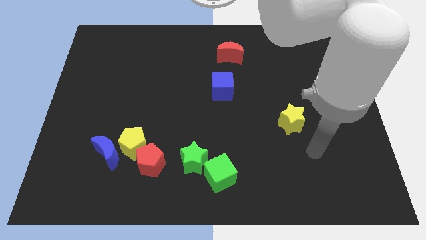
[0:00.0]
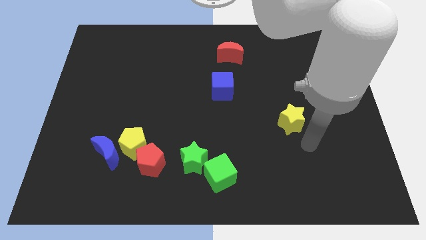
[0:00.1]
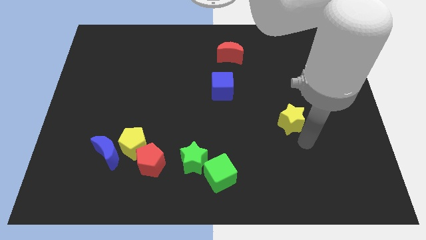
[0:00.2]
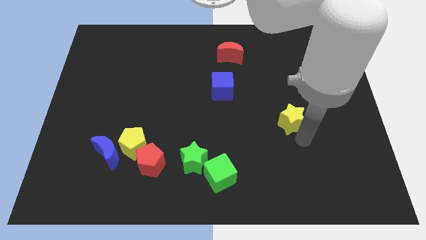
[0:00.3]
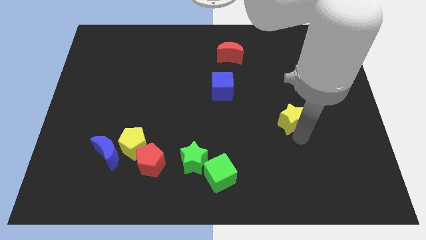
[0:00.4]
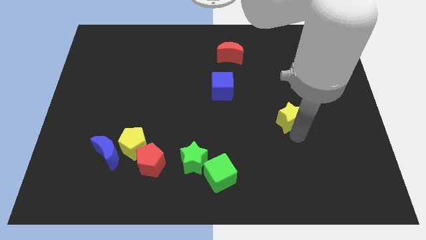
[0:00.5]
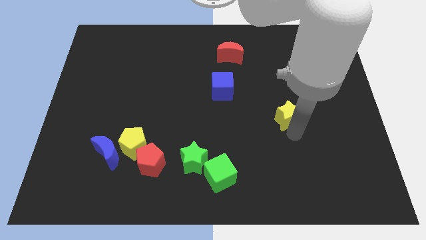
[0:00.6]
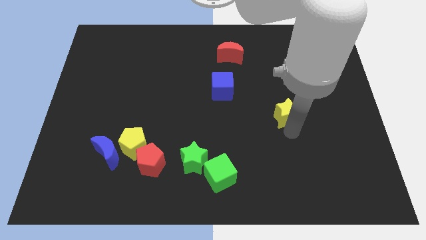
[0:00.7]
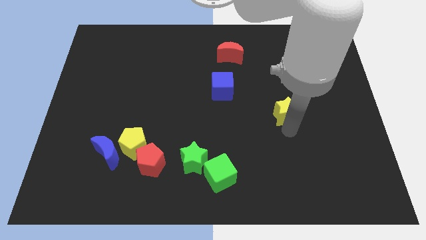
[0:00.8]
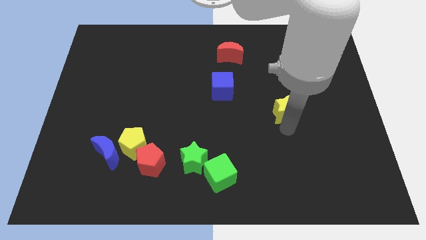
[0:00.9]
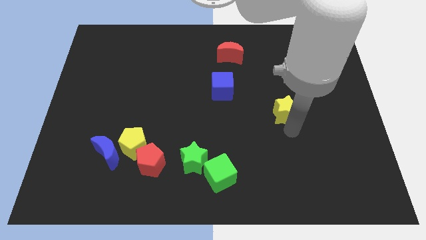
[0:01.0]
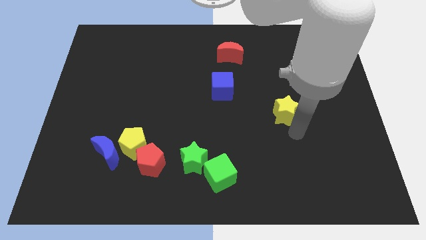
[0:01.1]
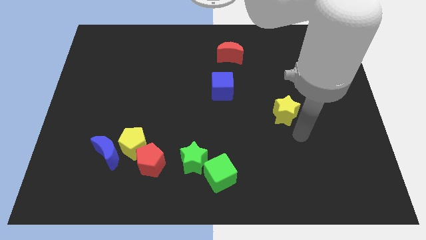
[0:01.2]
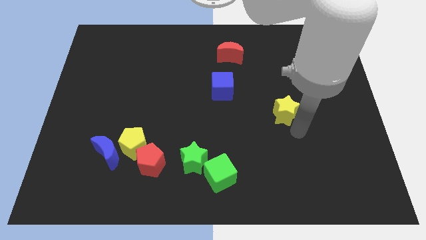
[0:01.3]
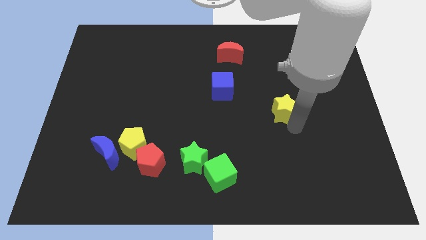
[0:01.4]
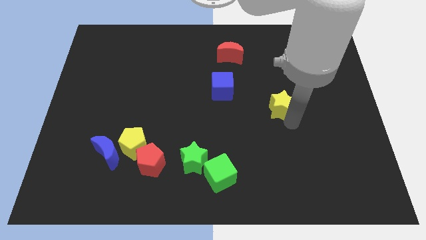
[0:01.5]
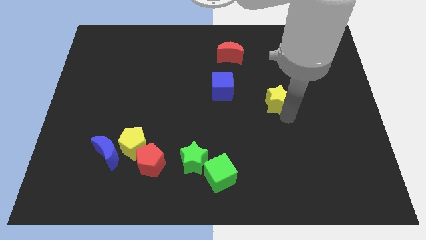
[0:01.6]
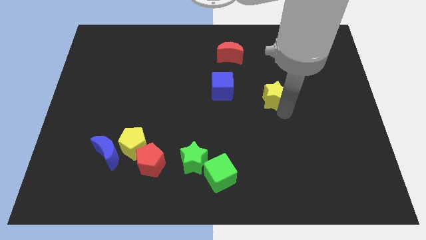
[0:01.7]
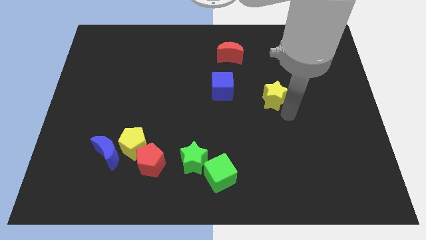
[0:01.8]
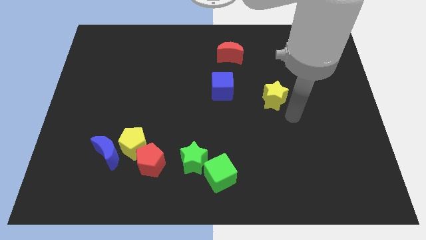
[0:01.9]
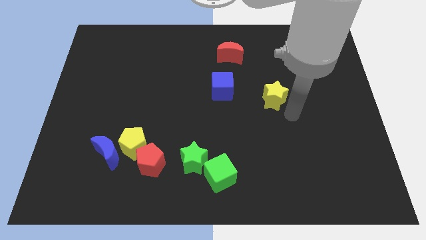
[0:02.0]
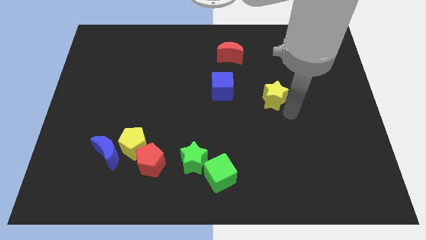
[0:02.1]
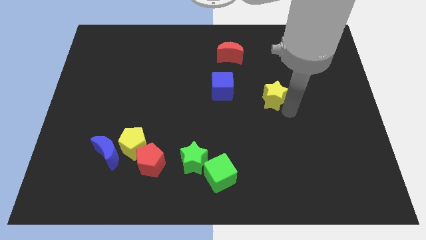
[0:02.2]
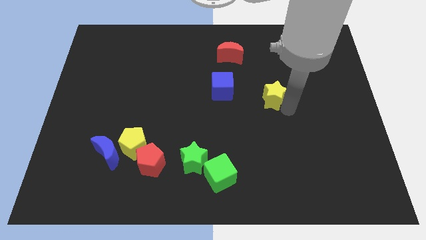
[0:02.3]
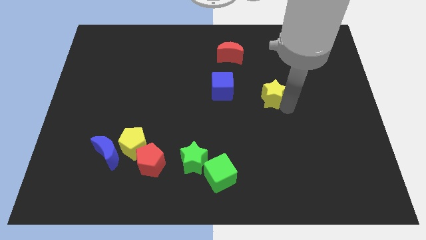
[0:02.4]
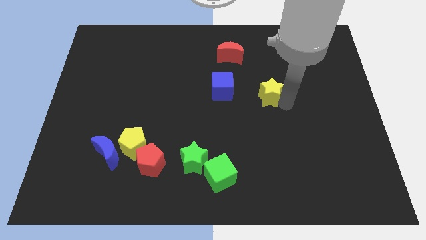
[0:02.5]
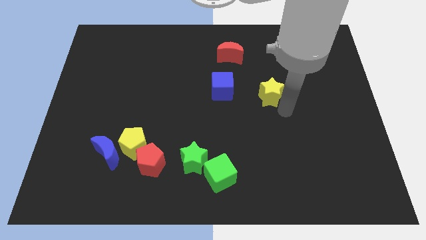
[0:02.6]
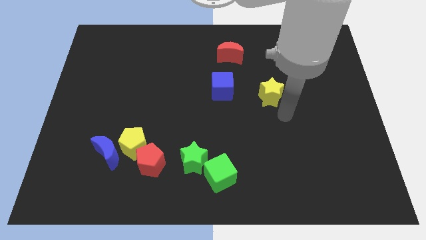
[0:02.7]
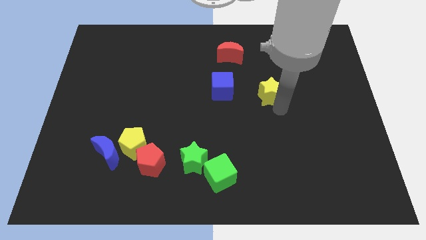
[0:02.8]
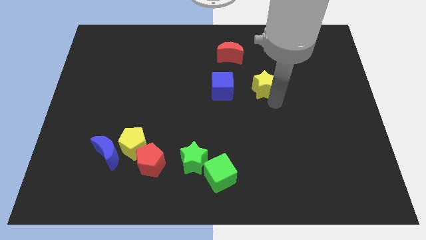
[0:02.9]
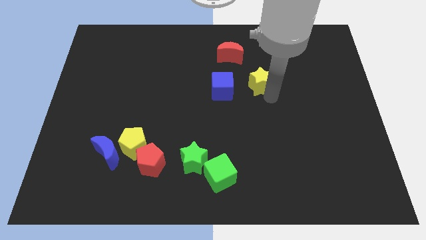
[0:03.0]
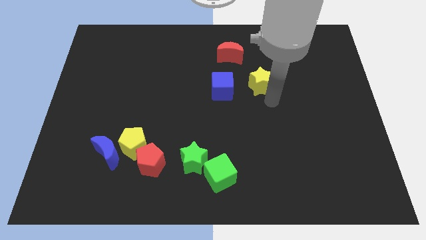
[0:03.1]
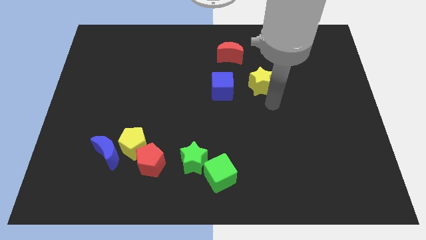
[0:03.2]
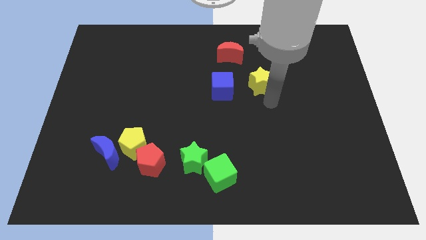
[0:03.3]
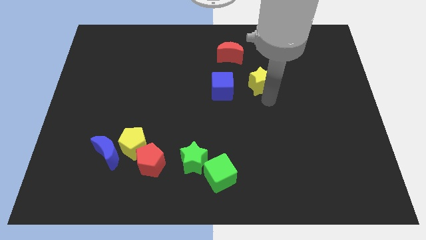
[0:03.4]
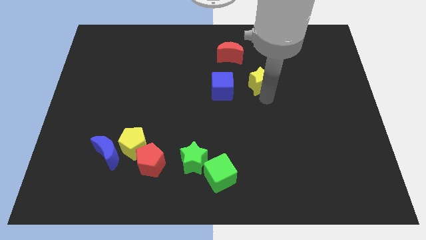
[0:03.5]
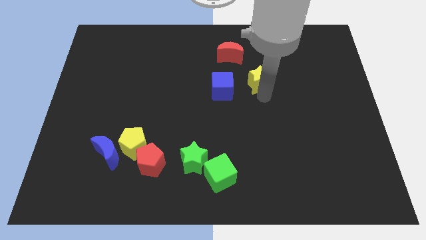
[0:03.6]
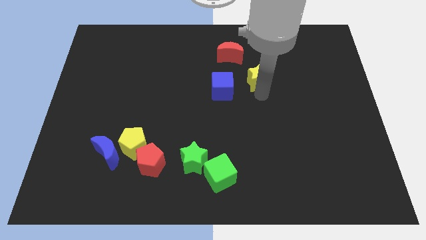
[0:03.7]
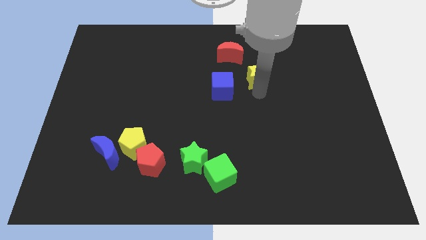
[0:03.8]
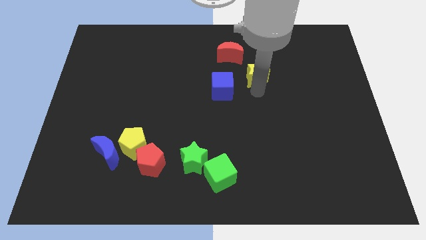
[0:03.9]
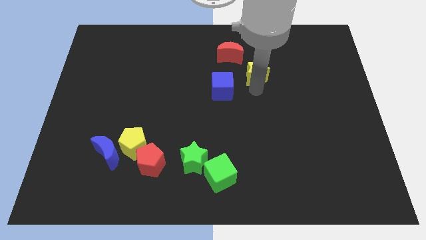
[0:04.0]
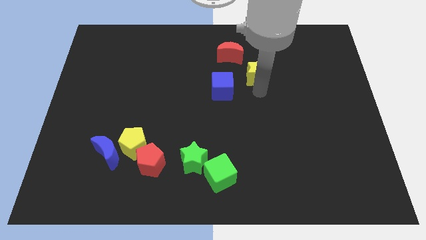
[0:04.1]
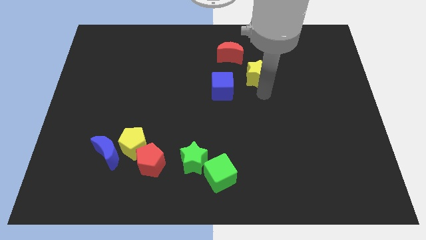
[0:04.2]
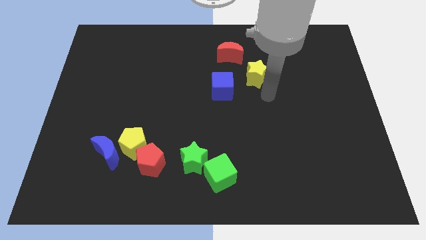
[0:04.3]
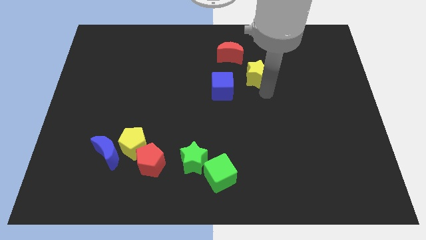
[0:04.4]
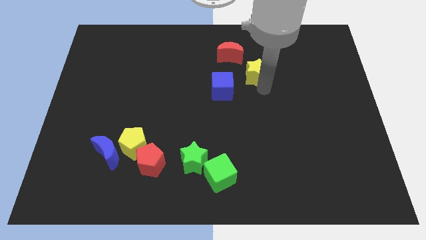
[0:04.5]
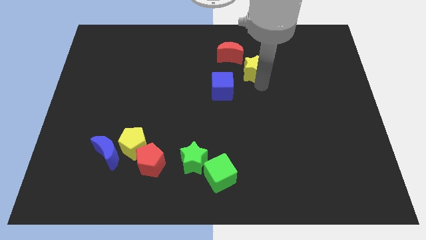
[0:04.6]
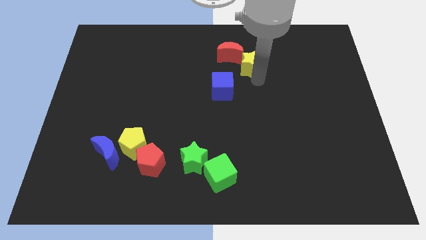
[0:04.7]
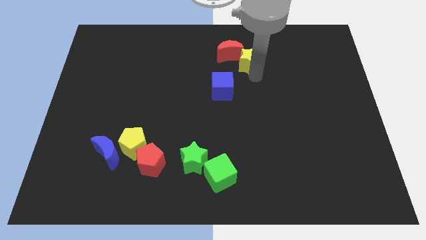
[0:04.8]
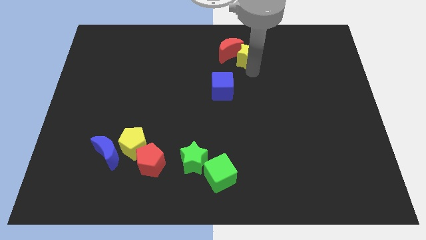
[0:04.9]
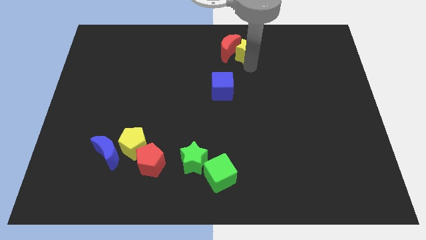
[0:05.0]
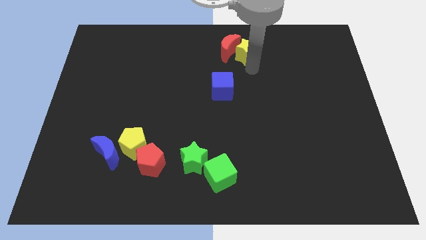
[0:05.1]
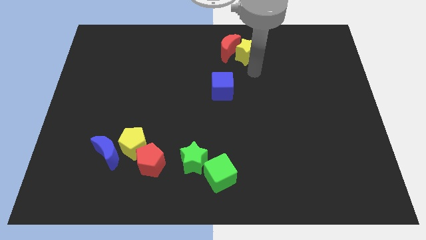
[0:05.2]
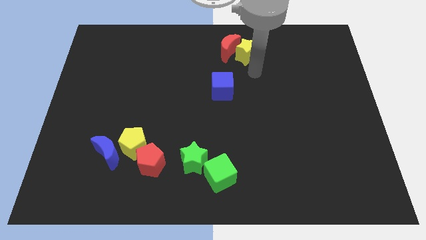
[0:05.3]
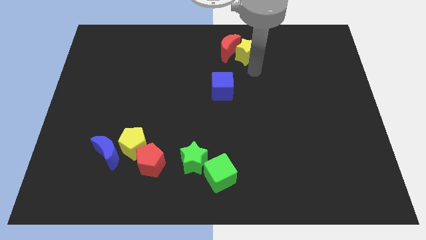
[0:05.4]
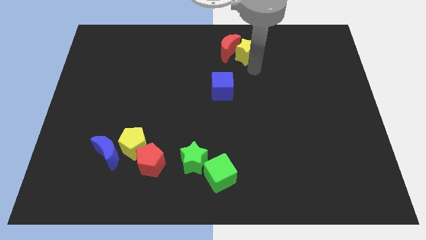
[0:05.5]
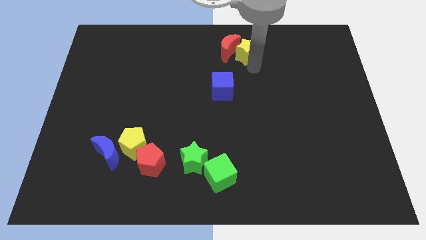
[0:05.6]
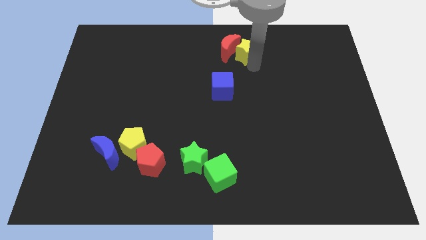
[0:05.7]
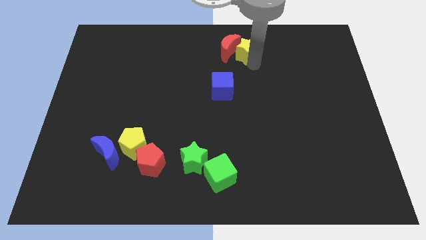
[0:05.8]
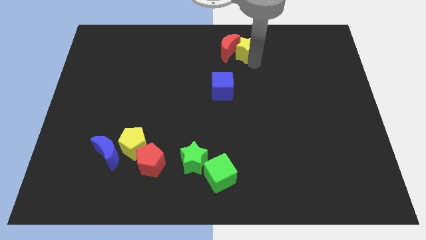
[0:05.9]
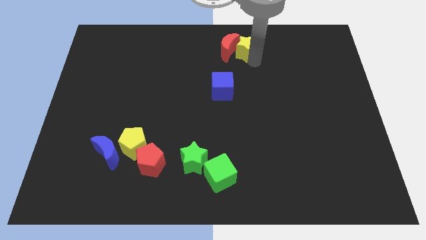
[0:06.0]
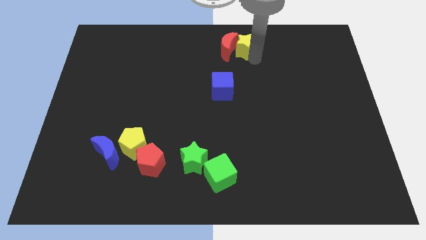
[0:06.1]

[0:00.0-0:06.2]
slide the yellow star to the towards your base
